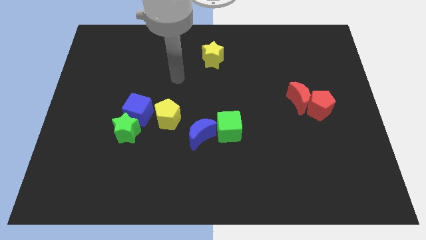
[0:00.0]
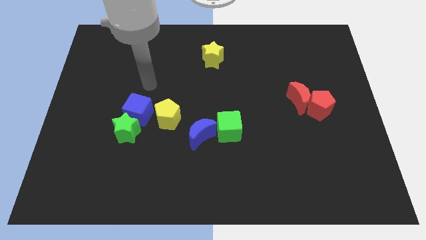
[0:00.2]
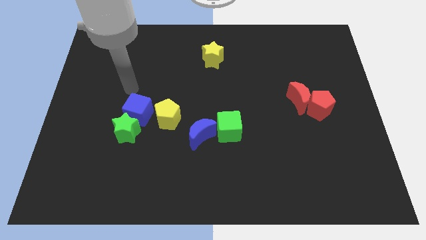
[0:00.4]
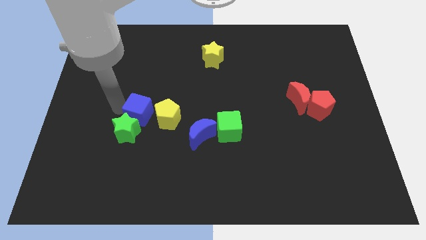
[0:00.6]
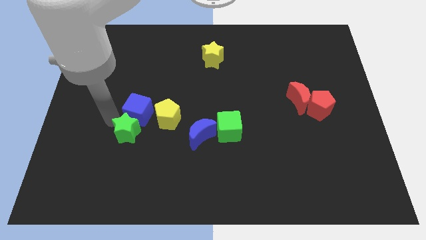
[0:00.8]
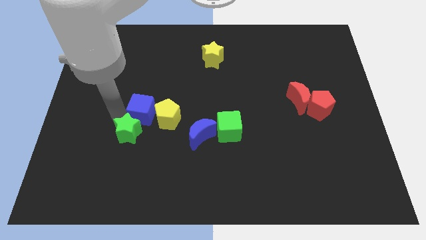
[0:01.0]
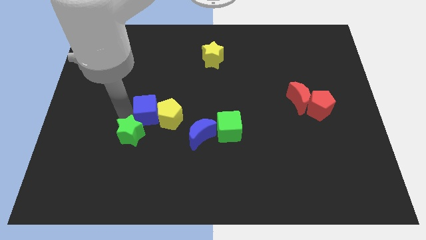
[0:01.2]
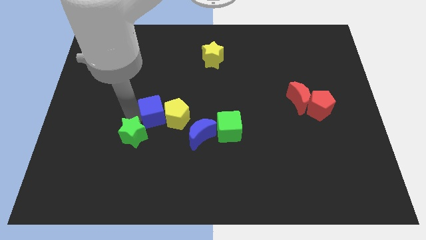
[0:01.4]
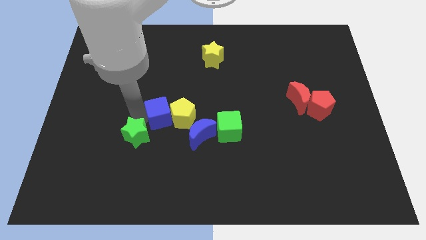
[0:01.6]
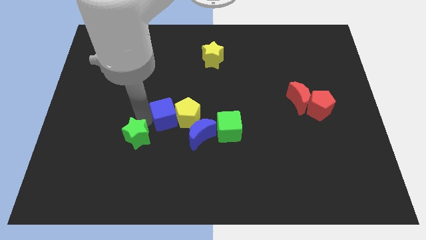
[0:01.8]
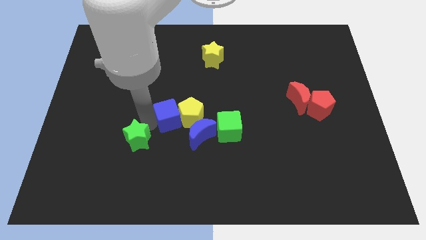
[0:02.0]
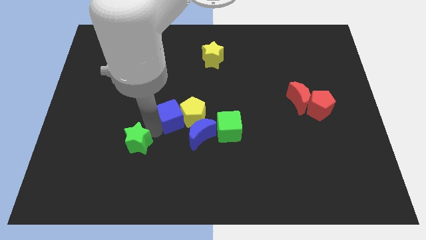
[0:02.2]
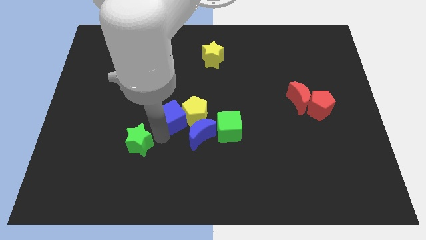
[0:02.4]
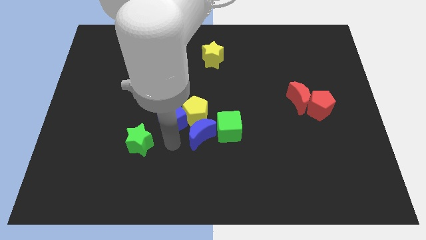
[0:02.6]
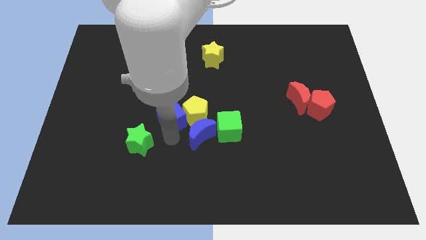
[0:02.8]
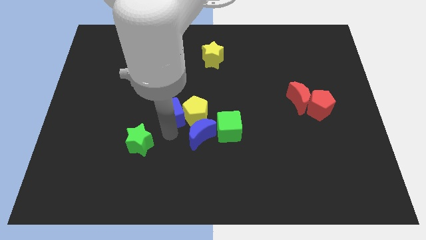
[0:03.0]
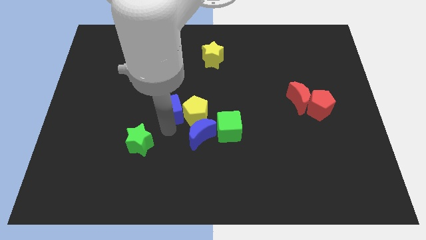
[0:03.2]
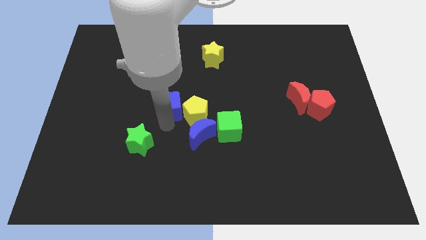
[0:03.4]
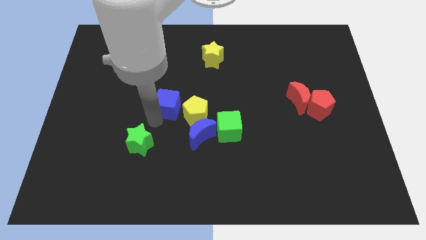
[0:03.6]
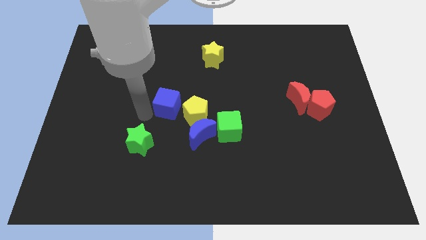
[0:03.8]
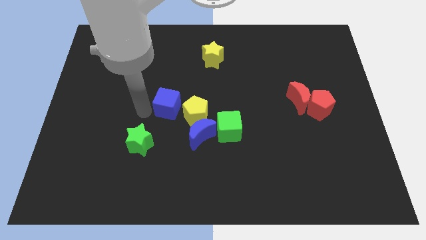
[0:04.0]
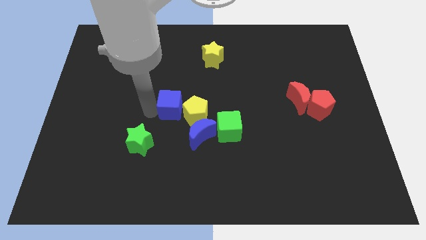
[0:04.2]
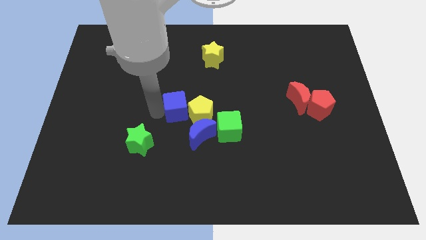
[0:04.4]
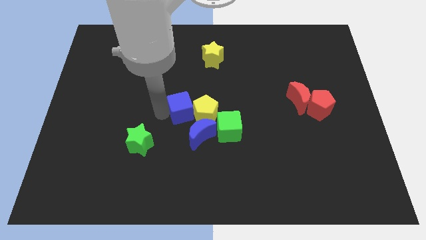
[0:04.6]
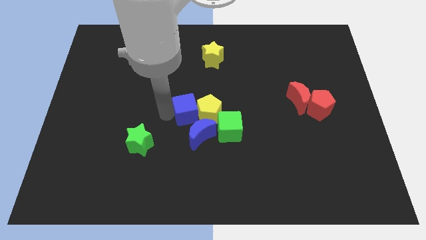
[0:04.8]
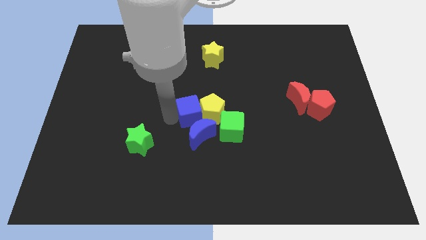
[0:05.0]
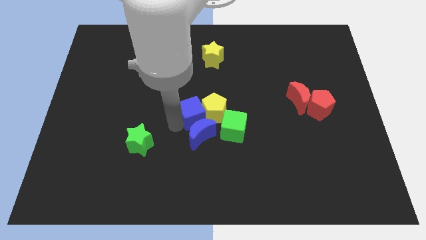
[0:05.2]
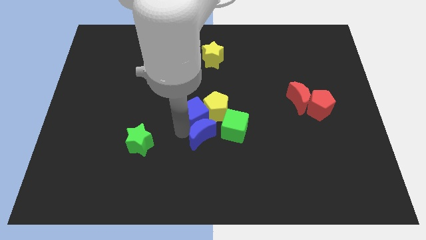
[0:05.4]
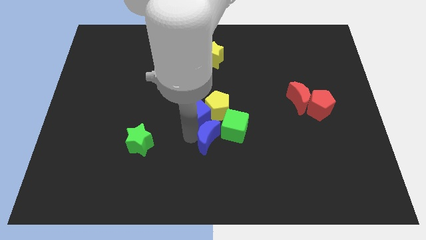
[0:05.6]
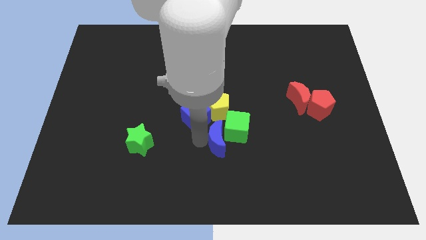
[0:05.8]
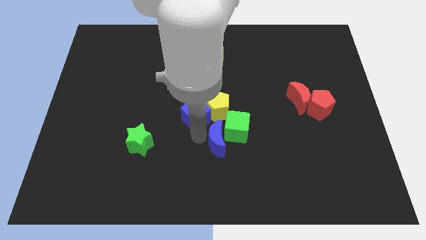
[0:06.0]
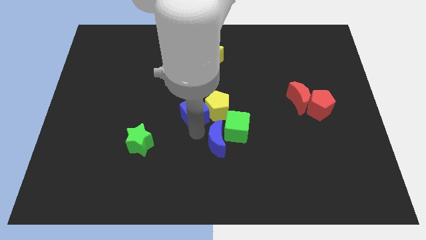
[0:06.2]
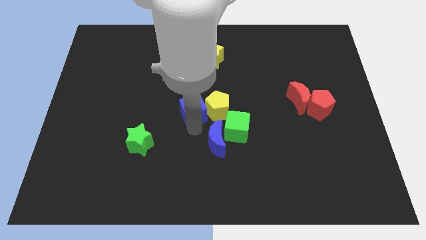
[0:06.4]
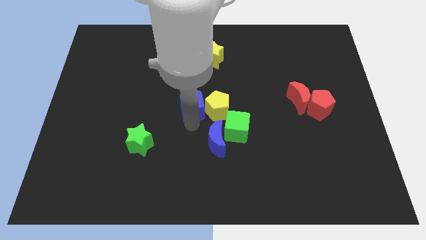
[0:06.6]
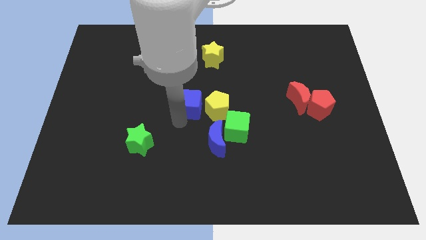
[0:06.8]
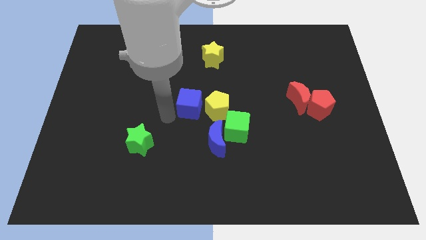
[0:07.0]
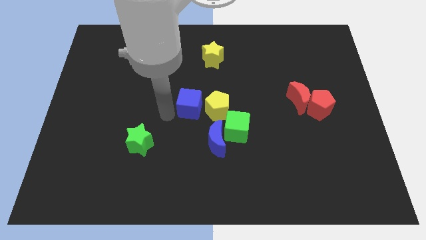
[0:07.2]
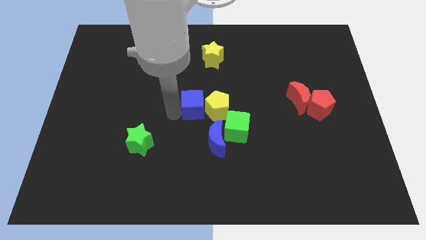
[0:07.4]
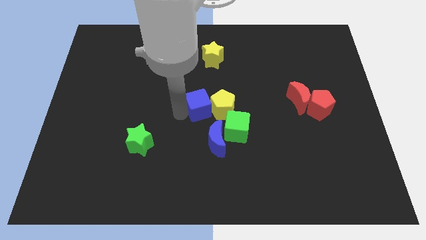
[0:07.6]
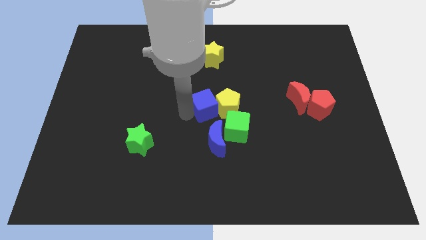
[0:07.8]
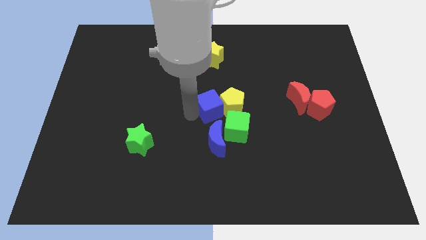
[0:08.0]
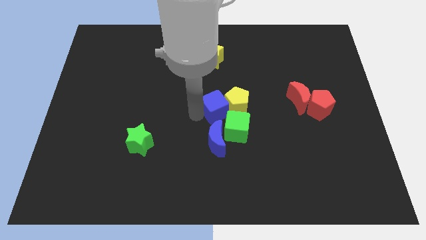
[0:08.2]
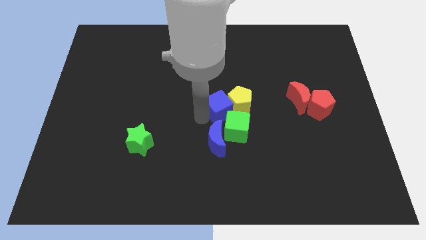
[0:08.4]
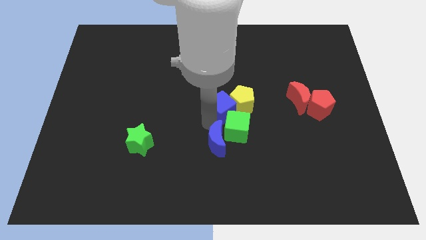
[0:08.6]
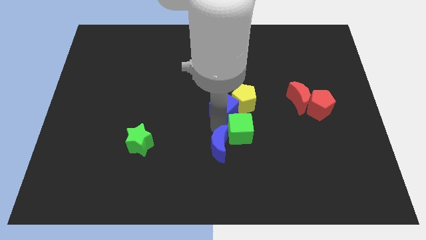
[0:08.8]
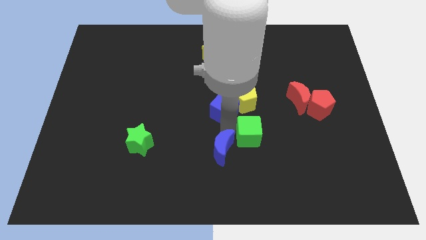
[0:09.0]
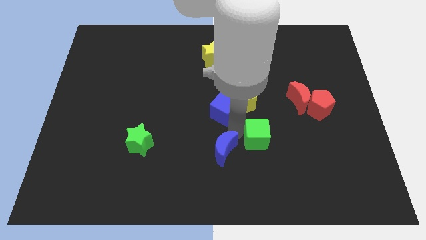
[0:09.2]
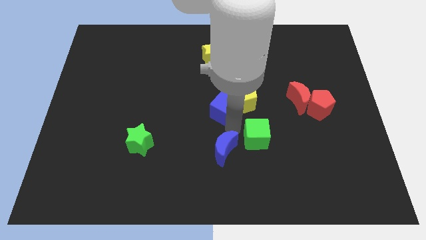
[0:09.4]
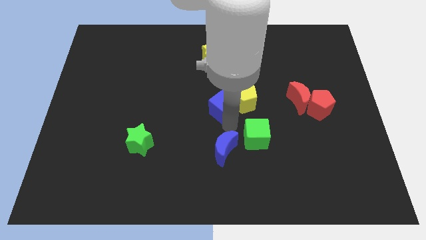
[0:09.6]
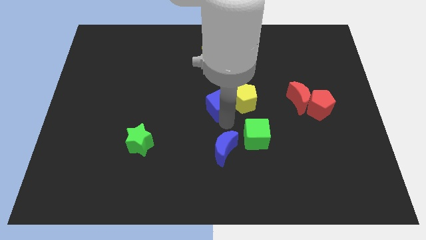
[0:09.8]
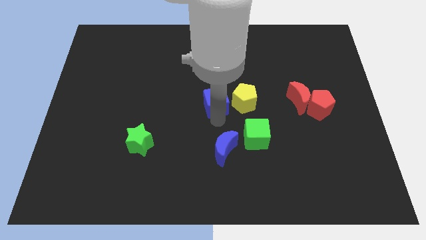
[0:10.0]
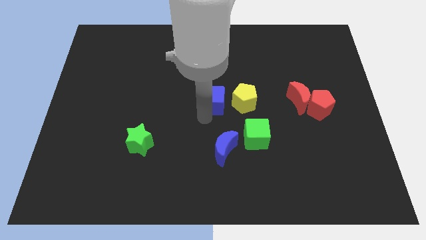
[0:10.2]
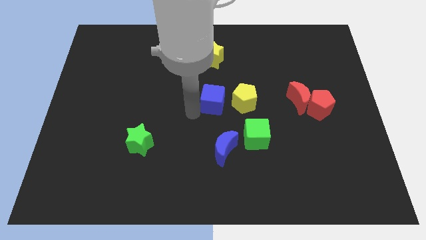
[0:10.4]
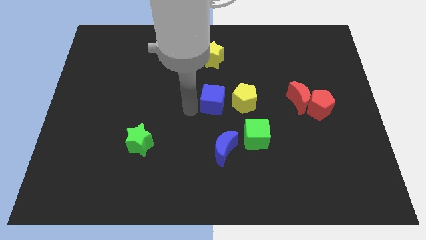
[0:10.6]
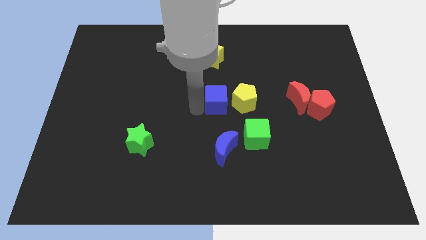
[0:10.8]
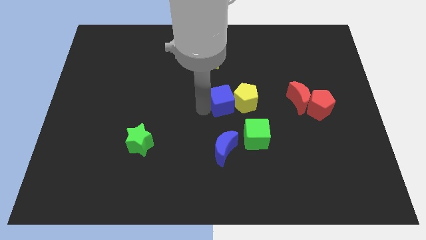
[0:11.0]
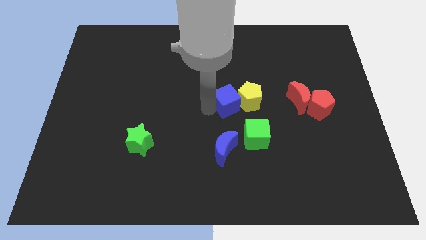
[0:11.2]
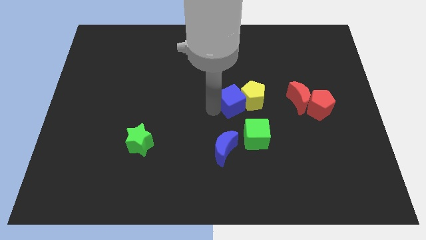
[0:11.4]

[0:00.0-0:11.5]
move the blue cube to the left side of the red moon

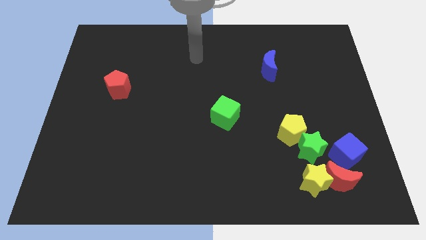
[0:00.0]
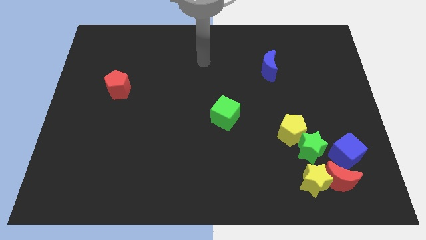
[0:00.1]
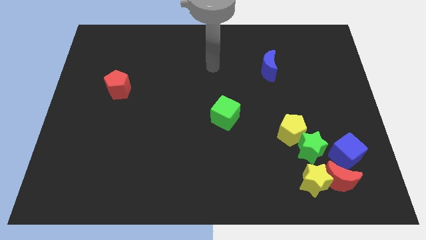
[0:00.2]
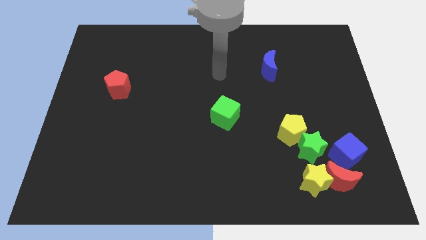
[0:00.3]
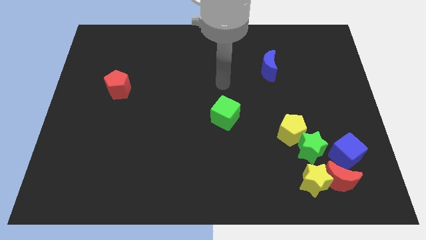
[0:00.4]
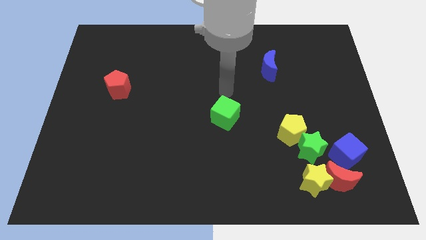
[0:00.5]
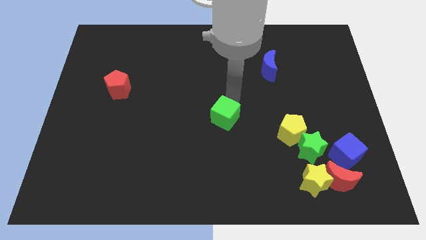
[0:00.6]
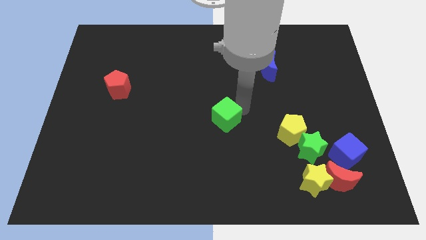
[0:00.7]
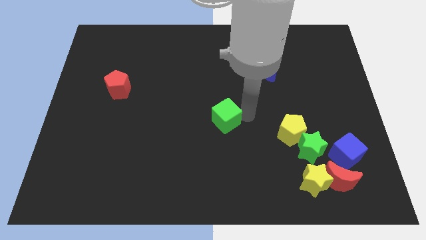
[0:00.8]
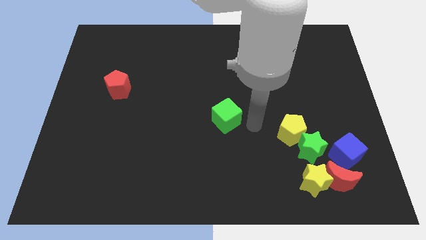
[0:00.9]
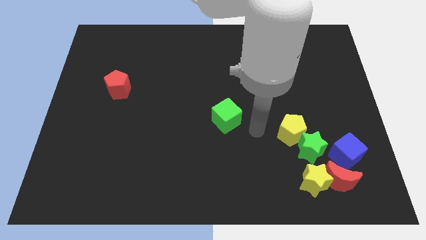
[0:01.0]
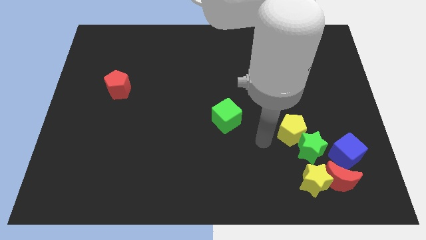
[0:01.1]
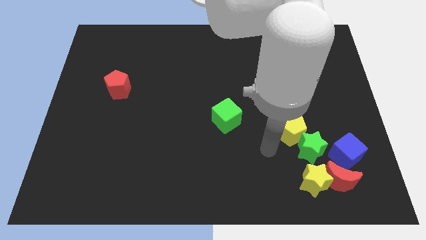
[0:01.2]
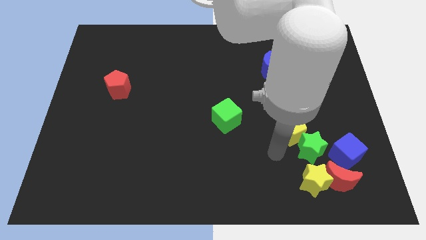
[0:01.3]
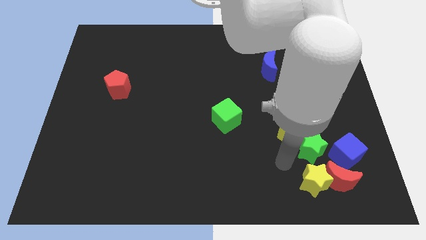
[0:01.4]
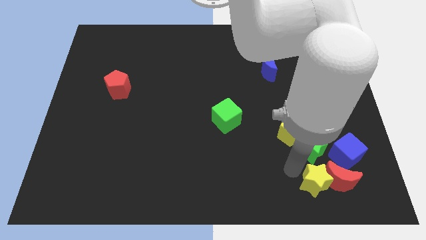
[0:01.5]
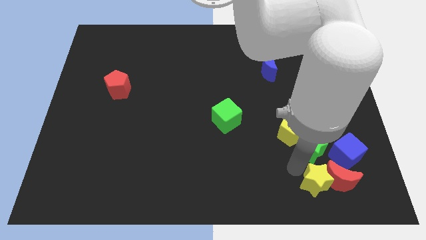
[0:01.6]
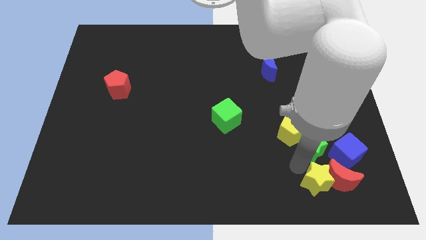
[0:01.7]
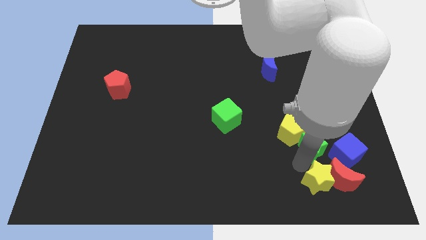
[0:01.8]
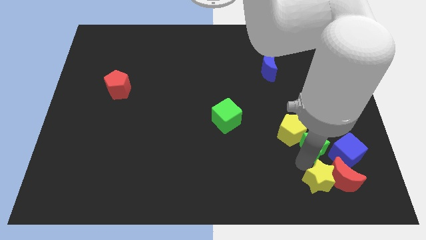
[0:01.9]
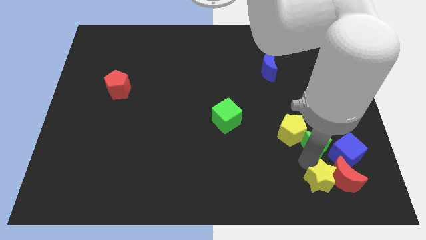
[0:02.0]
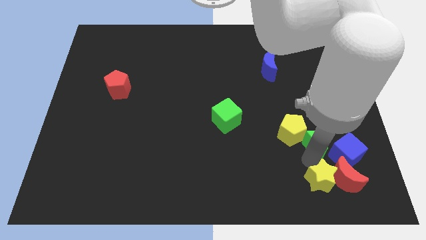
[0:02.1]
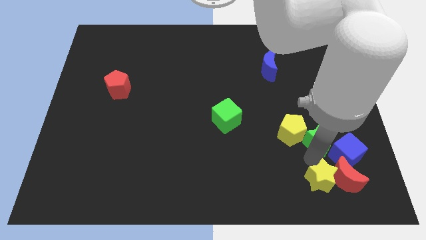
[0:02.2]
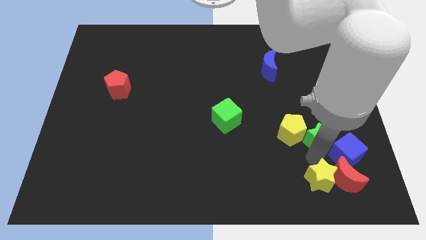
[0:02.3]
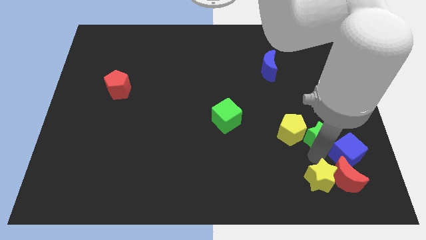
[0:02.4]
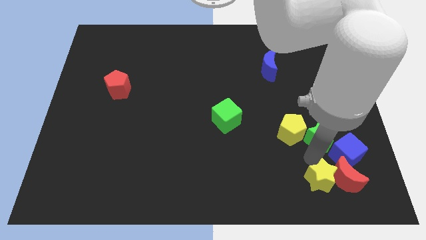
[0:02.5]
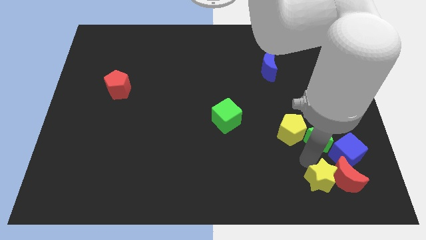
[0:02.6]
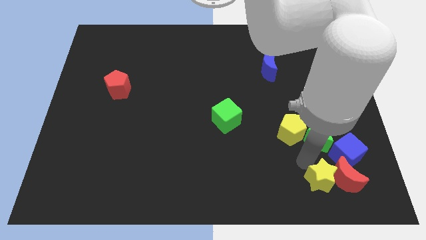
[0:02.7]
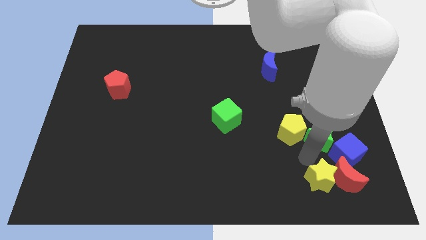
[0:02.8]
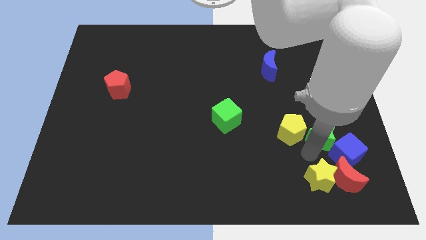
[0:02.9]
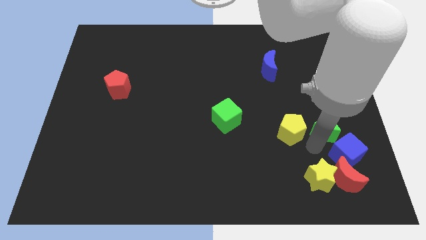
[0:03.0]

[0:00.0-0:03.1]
put the green star above the blue cube
